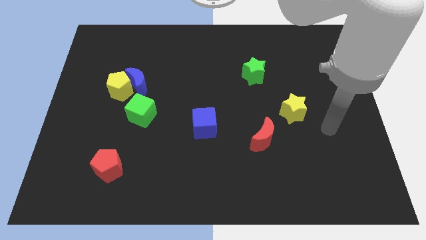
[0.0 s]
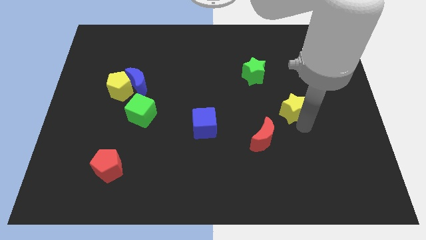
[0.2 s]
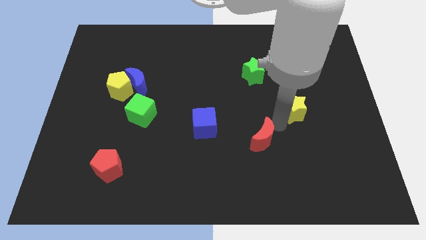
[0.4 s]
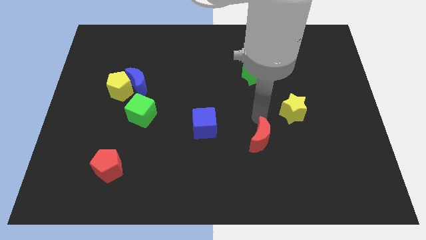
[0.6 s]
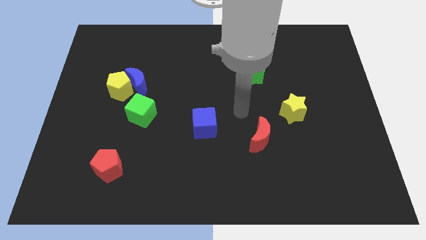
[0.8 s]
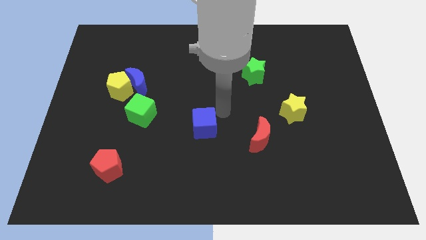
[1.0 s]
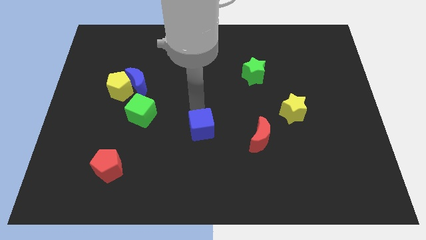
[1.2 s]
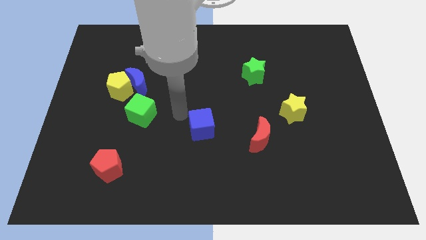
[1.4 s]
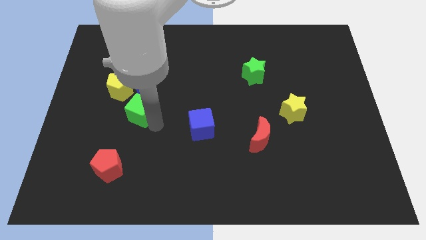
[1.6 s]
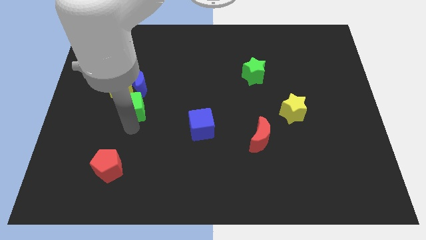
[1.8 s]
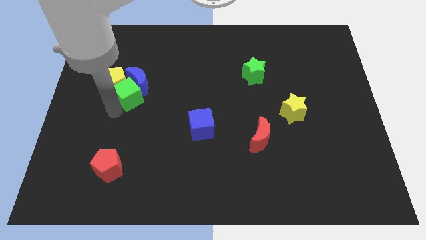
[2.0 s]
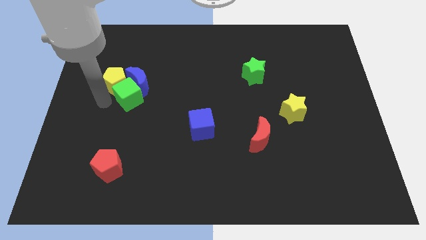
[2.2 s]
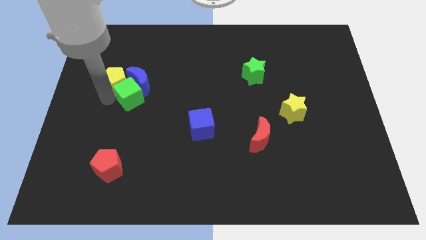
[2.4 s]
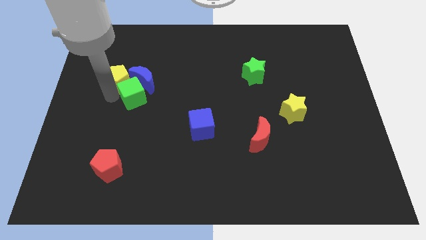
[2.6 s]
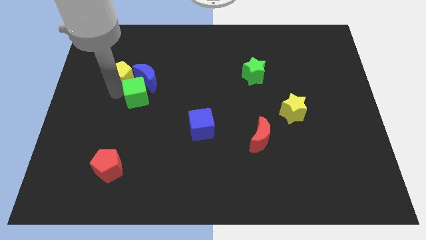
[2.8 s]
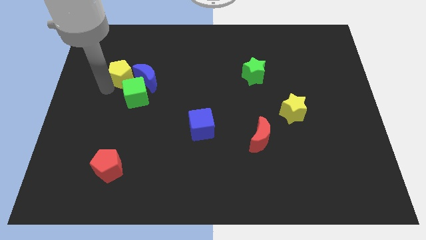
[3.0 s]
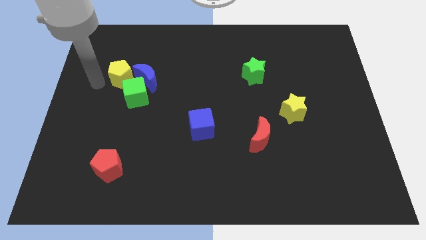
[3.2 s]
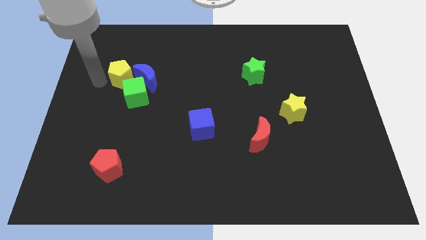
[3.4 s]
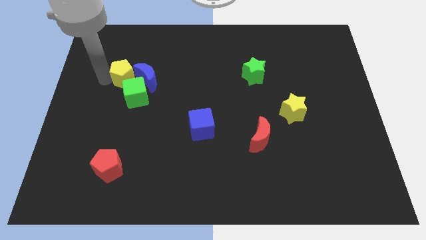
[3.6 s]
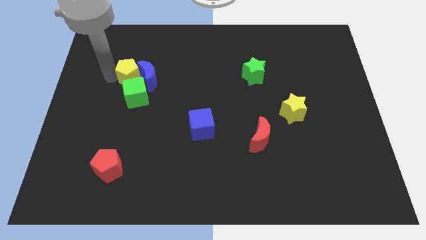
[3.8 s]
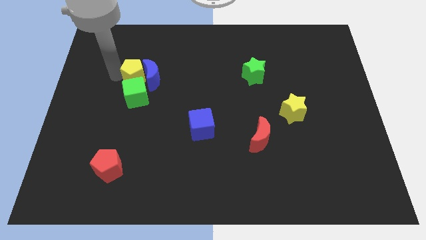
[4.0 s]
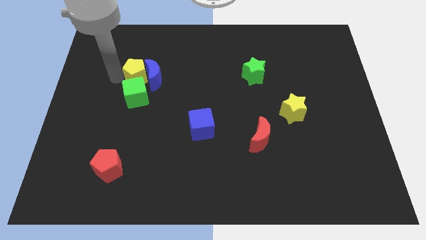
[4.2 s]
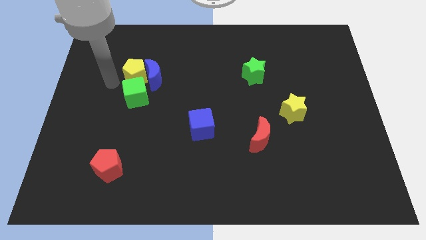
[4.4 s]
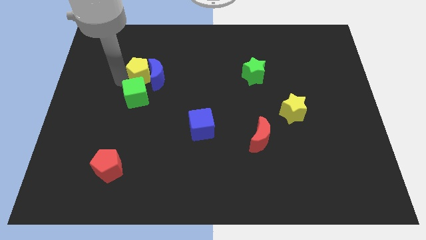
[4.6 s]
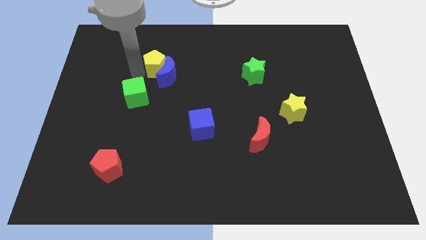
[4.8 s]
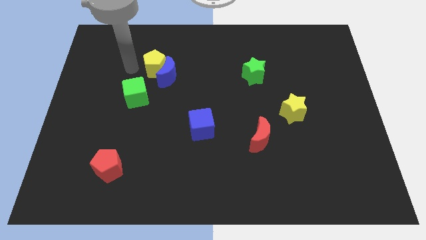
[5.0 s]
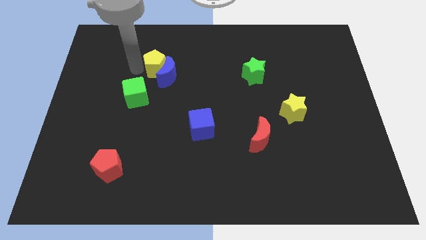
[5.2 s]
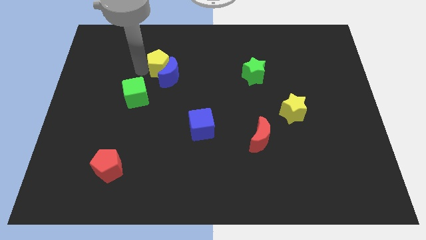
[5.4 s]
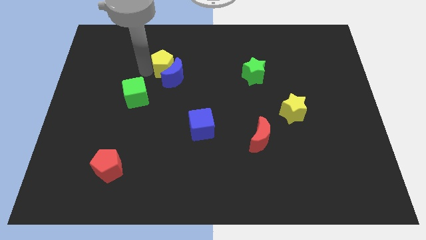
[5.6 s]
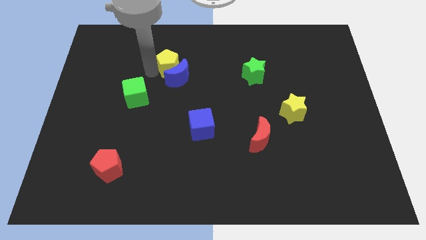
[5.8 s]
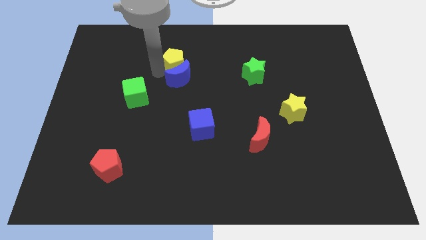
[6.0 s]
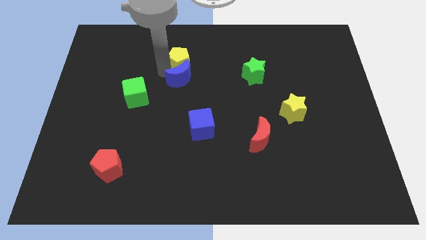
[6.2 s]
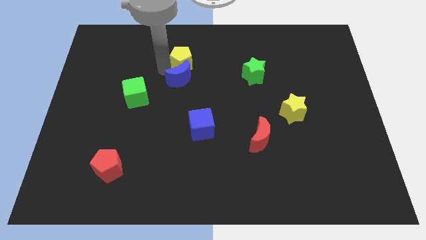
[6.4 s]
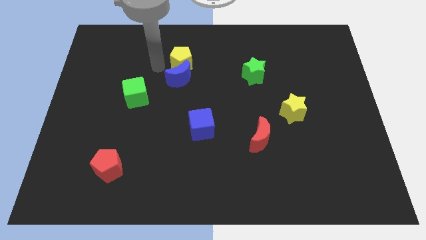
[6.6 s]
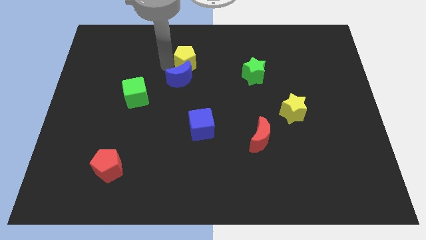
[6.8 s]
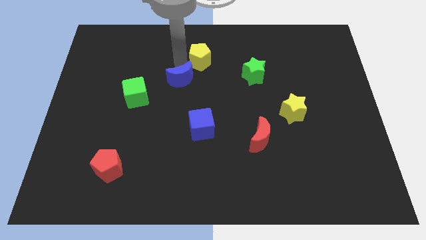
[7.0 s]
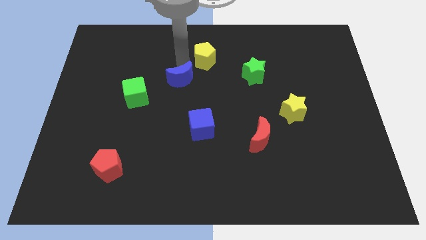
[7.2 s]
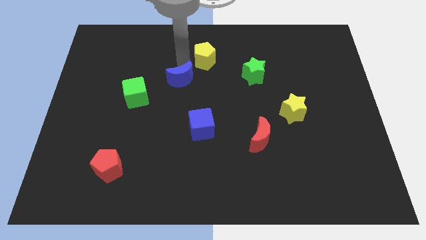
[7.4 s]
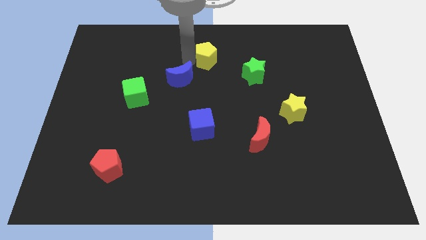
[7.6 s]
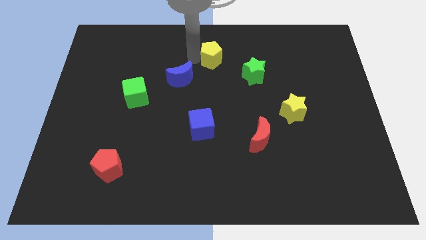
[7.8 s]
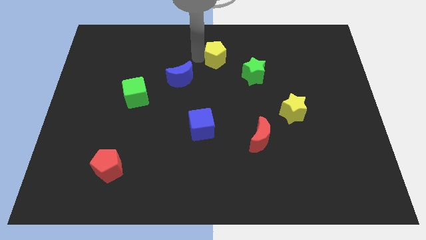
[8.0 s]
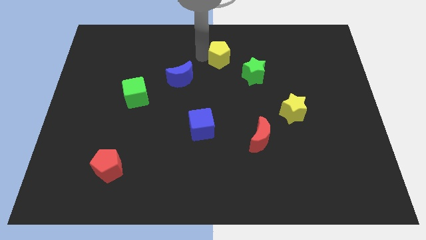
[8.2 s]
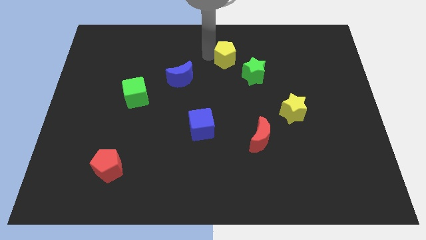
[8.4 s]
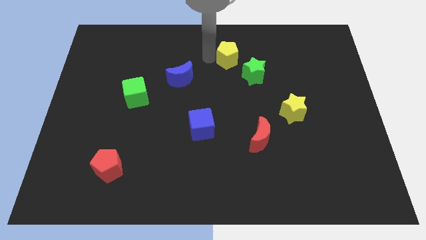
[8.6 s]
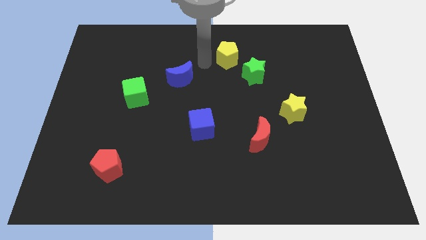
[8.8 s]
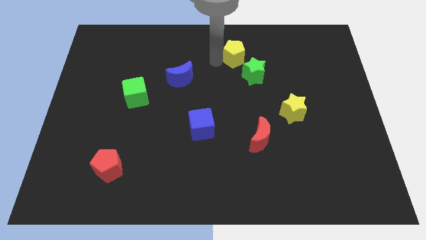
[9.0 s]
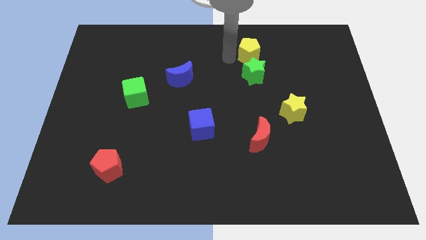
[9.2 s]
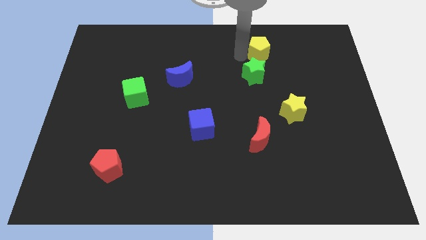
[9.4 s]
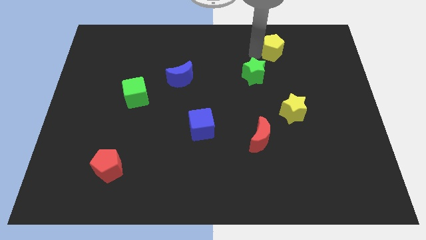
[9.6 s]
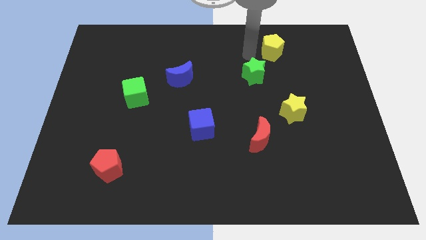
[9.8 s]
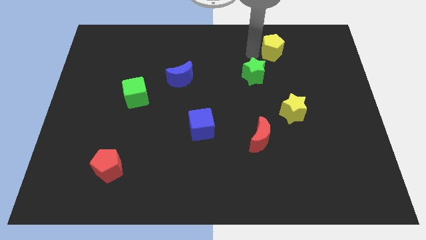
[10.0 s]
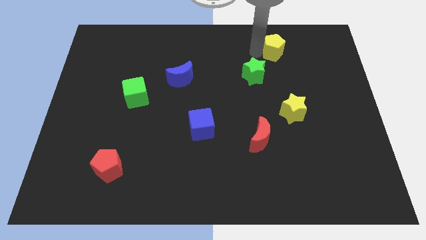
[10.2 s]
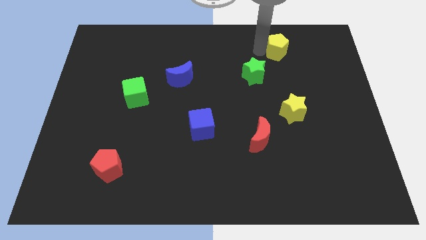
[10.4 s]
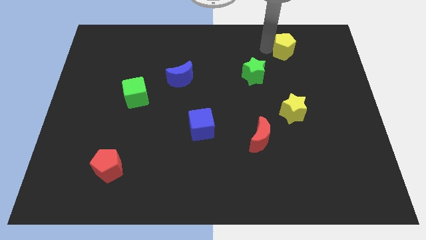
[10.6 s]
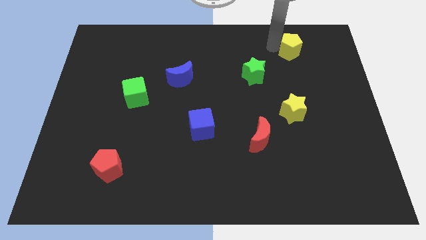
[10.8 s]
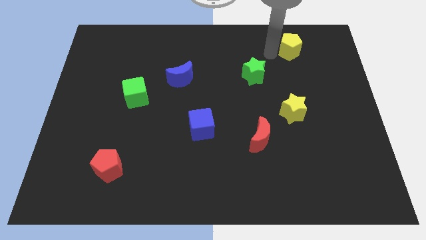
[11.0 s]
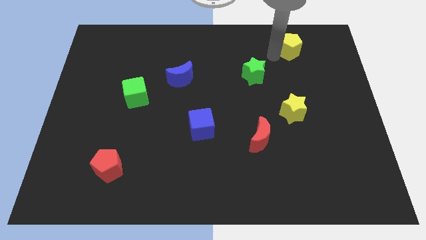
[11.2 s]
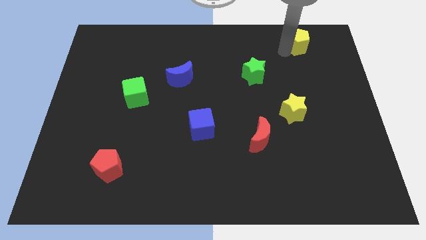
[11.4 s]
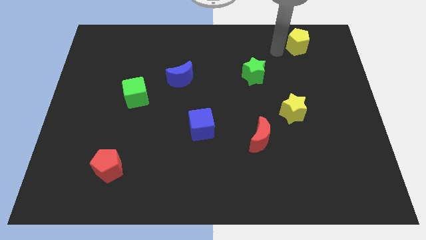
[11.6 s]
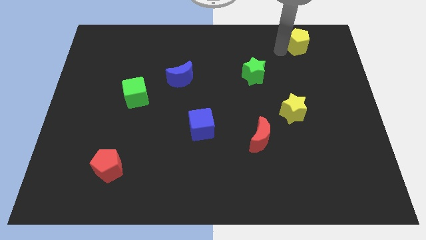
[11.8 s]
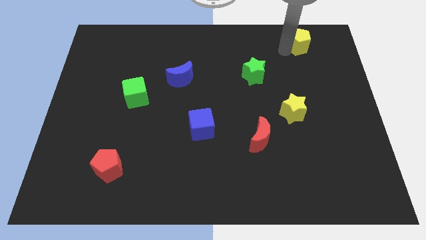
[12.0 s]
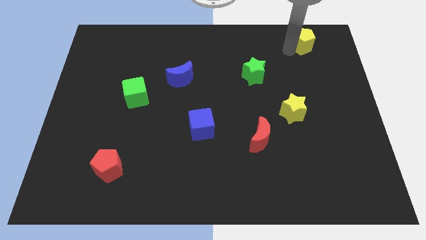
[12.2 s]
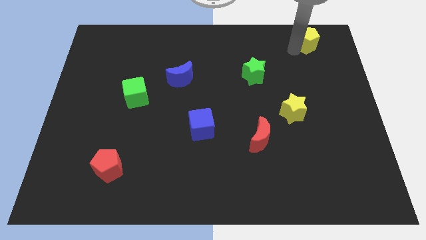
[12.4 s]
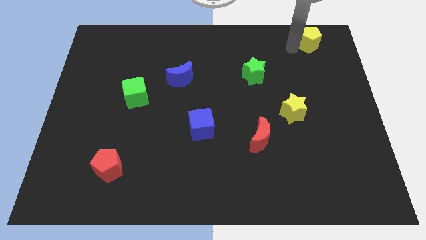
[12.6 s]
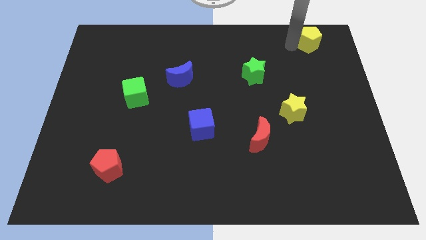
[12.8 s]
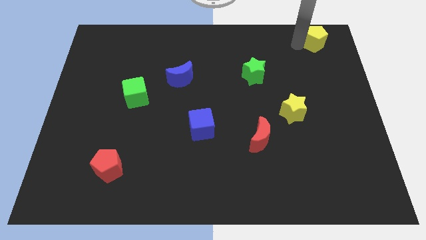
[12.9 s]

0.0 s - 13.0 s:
slide the yellow pentagon to the top right of the board
